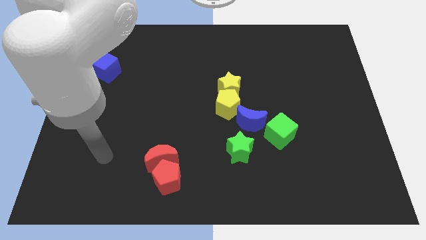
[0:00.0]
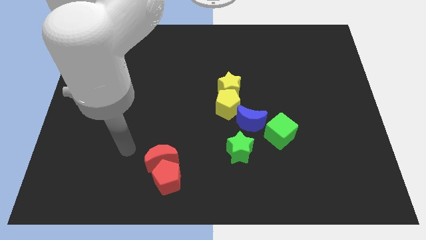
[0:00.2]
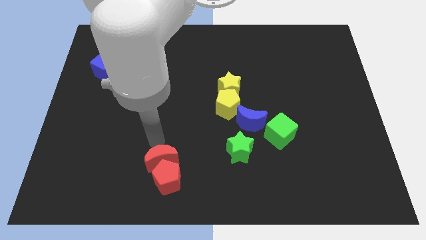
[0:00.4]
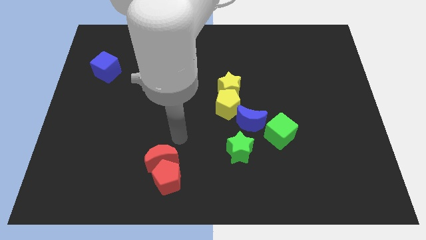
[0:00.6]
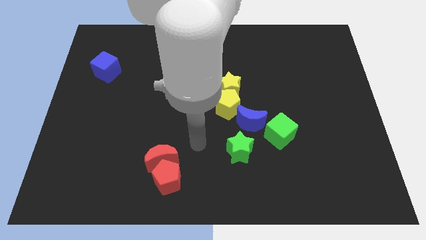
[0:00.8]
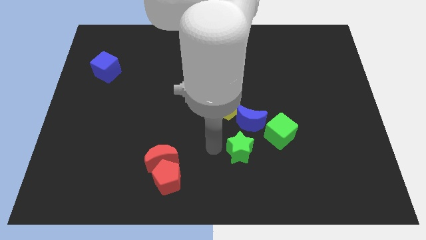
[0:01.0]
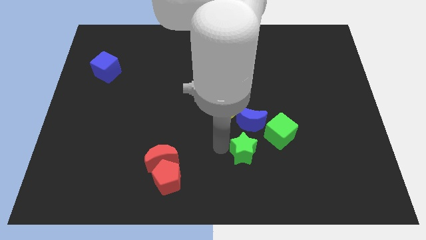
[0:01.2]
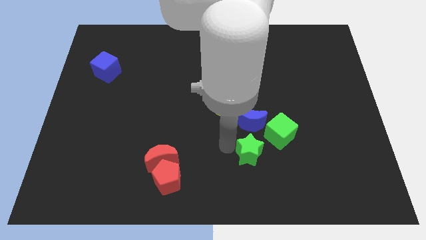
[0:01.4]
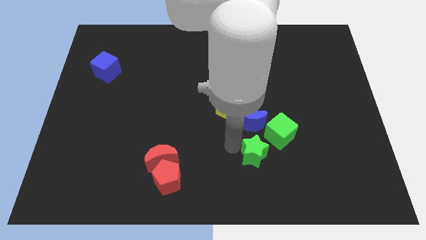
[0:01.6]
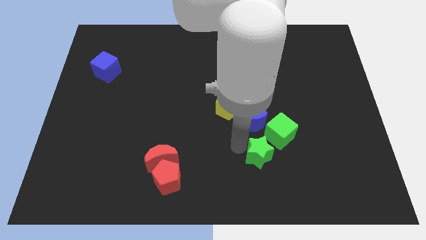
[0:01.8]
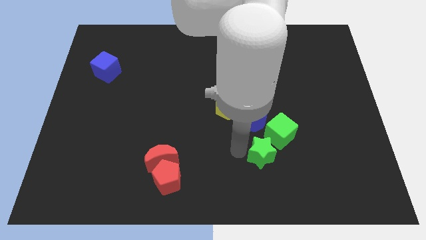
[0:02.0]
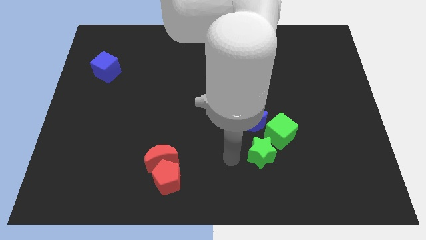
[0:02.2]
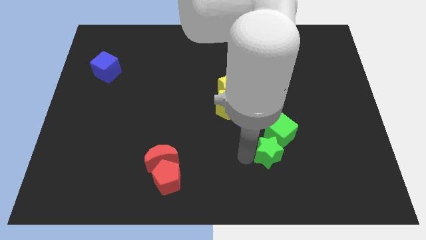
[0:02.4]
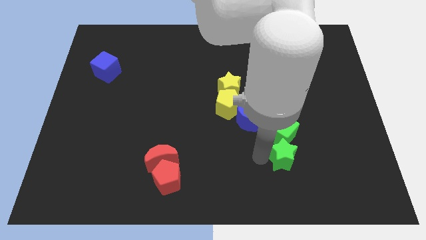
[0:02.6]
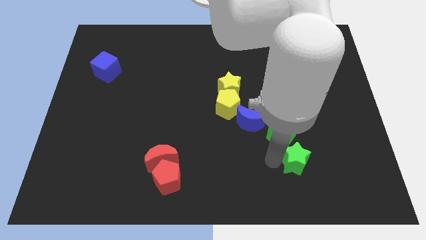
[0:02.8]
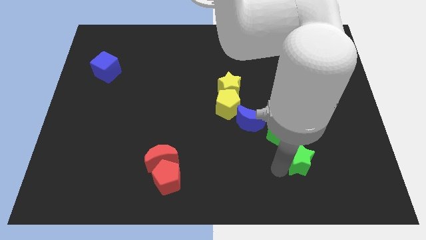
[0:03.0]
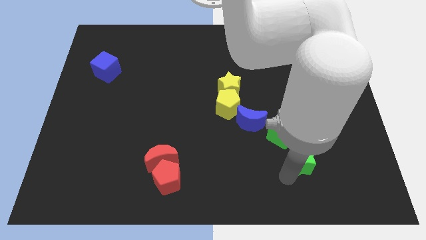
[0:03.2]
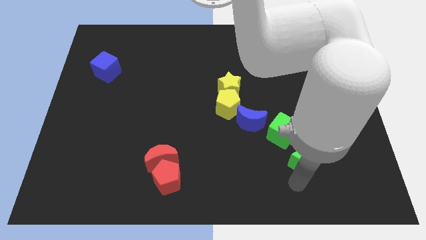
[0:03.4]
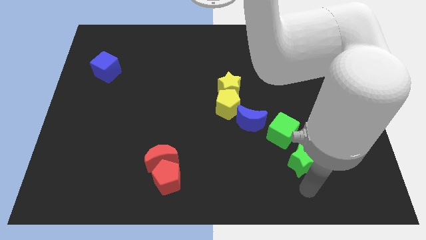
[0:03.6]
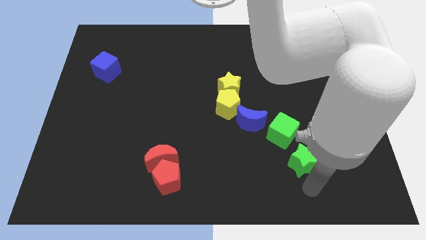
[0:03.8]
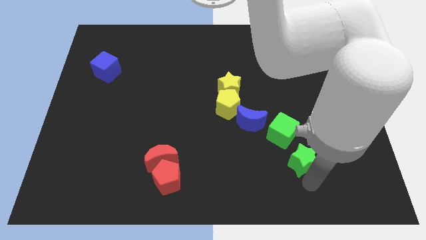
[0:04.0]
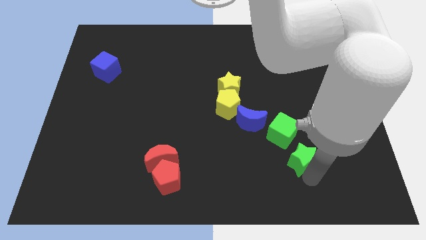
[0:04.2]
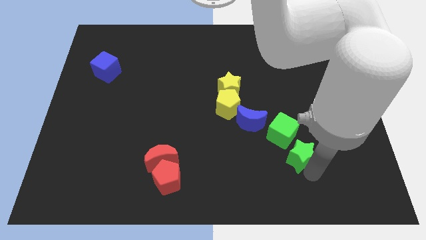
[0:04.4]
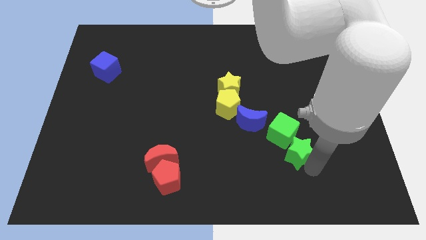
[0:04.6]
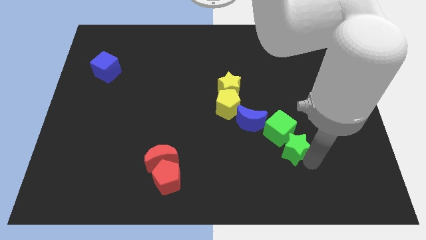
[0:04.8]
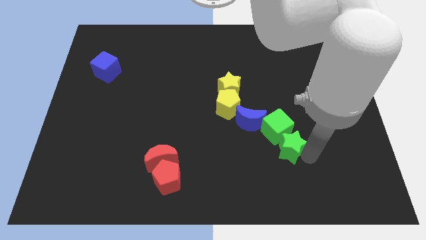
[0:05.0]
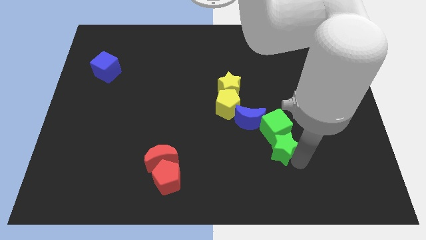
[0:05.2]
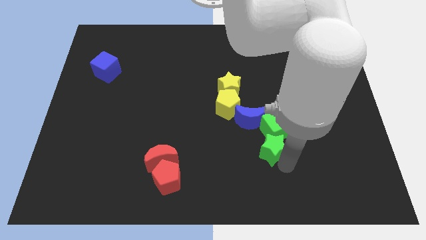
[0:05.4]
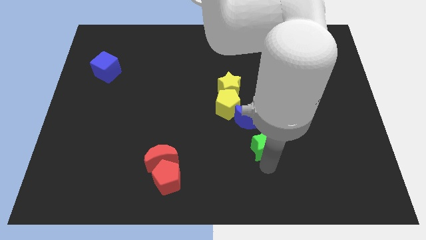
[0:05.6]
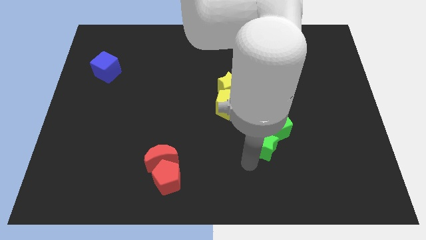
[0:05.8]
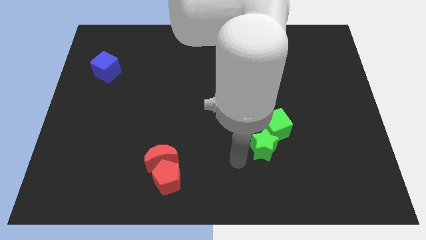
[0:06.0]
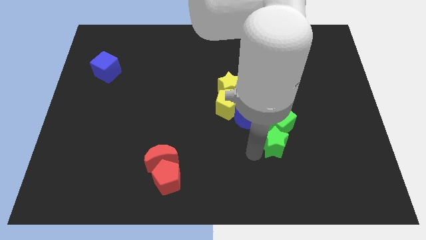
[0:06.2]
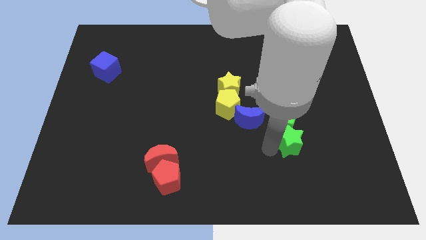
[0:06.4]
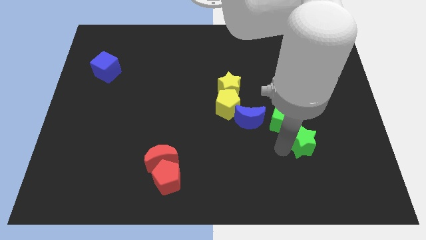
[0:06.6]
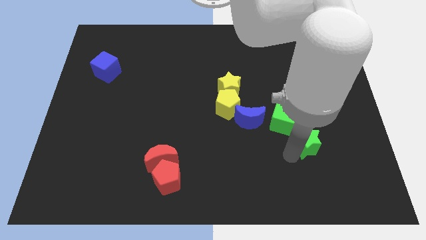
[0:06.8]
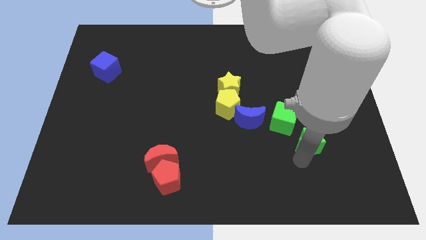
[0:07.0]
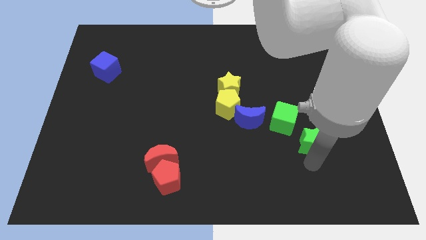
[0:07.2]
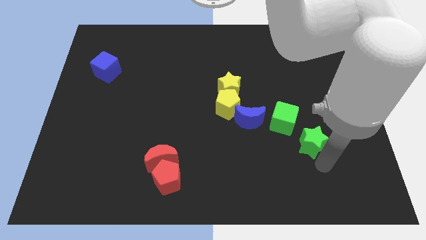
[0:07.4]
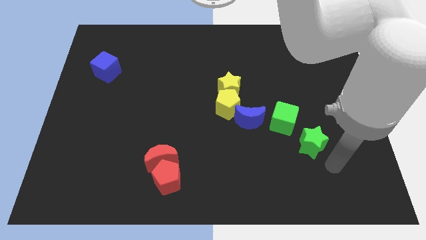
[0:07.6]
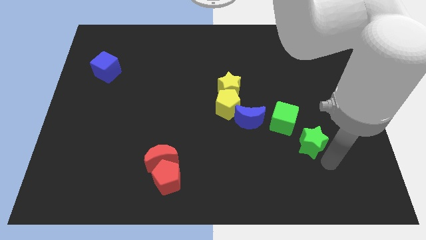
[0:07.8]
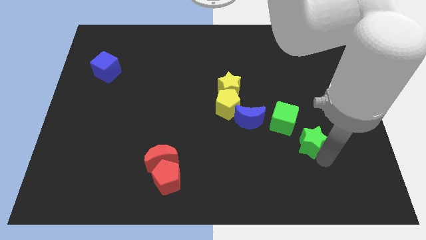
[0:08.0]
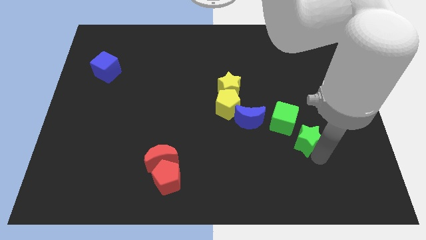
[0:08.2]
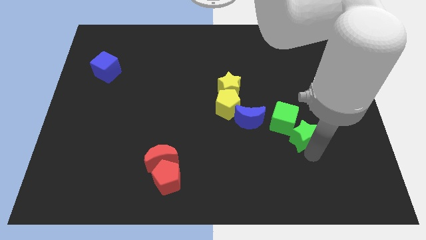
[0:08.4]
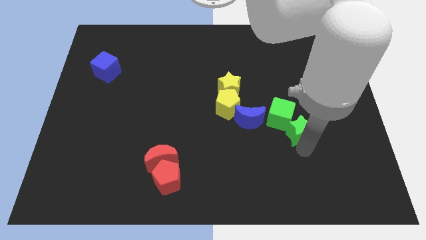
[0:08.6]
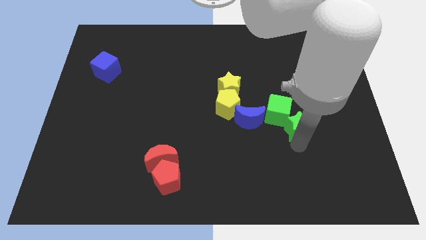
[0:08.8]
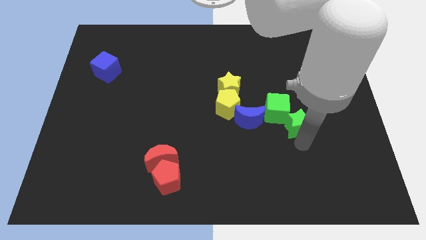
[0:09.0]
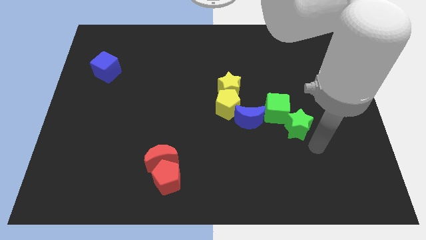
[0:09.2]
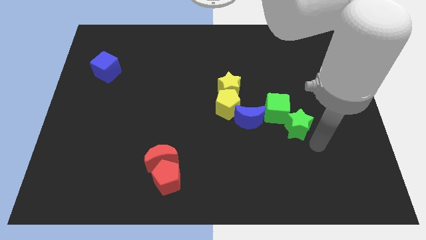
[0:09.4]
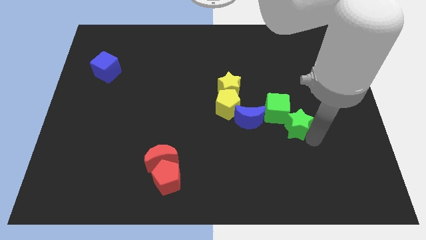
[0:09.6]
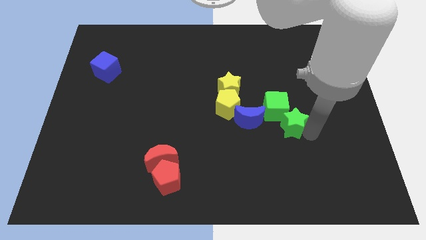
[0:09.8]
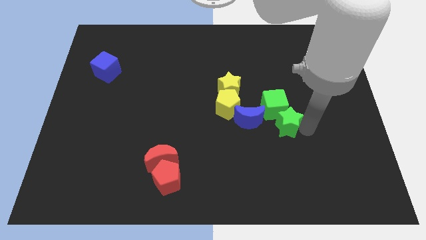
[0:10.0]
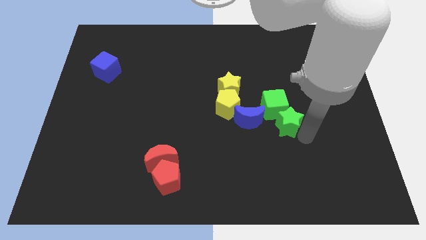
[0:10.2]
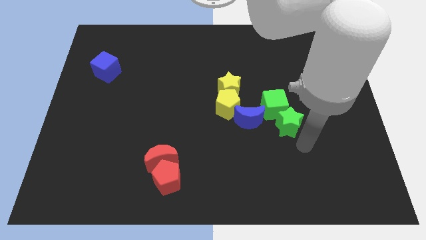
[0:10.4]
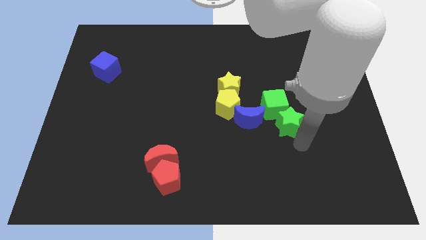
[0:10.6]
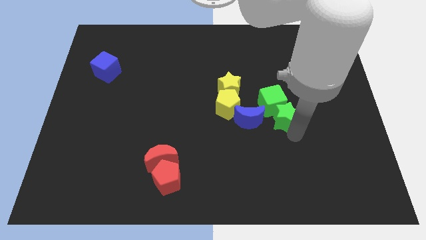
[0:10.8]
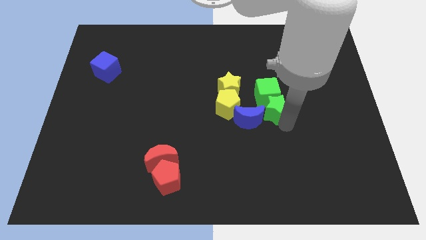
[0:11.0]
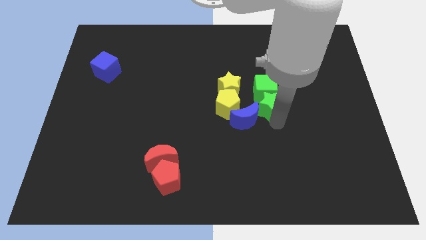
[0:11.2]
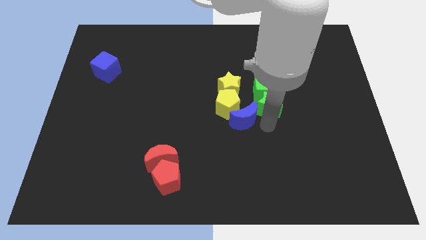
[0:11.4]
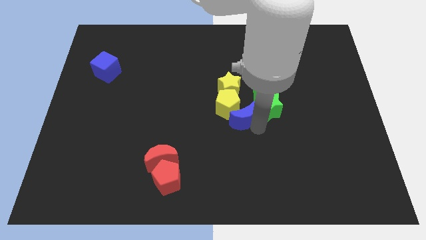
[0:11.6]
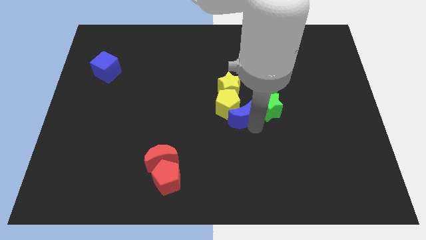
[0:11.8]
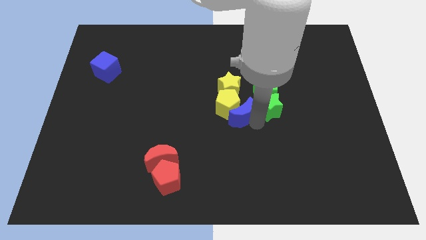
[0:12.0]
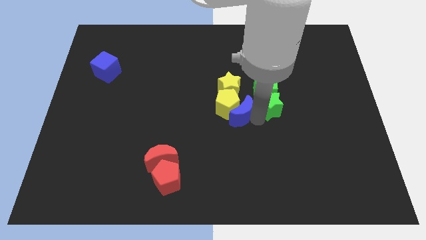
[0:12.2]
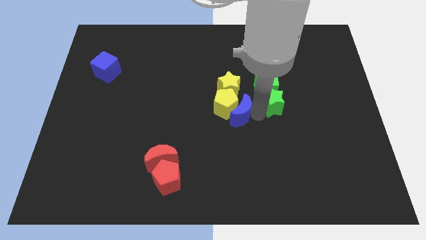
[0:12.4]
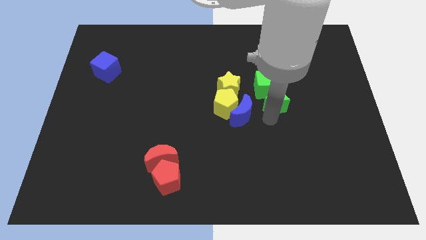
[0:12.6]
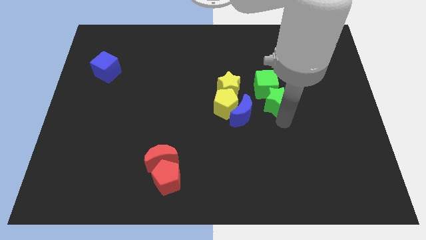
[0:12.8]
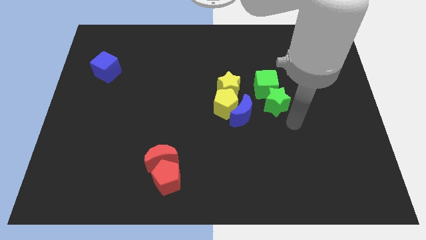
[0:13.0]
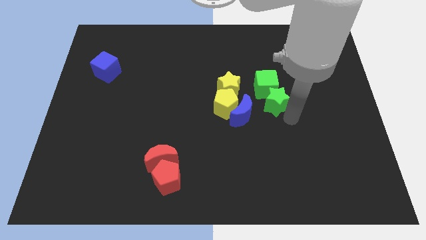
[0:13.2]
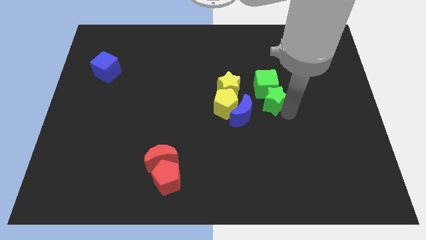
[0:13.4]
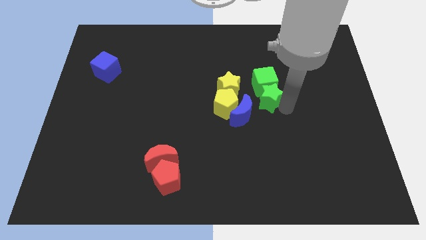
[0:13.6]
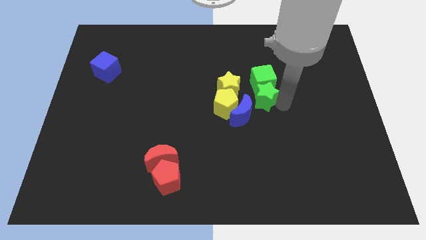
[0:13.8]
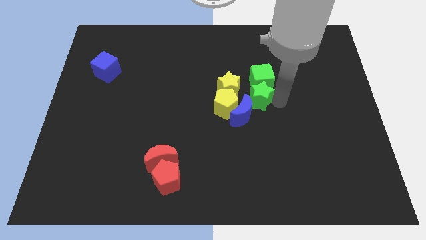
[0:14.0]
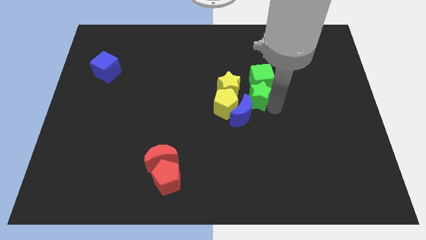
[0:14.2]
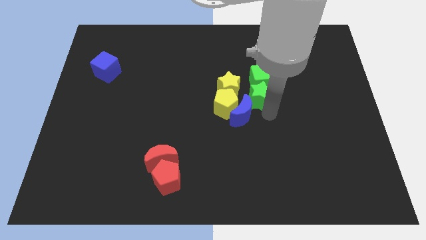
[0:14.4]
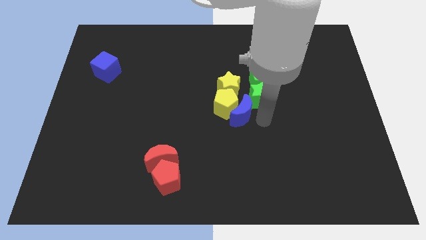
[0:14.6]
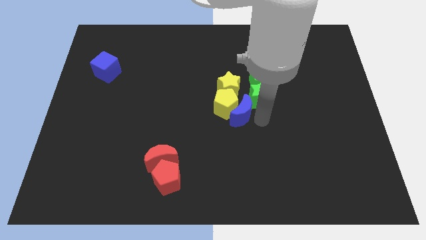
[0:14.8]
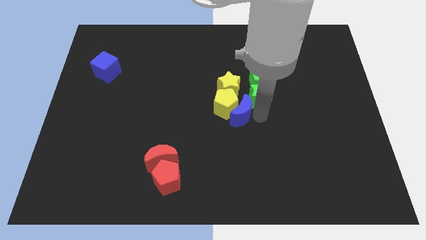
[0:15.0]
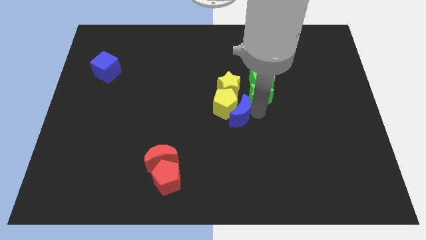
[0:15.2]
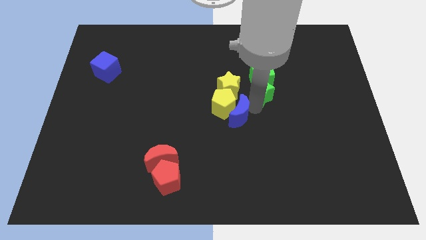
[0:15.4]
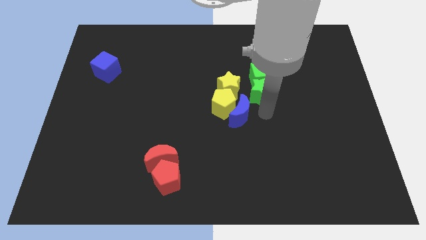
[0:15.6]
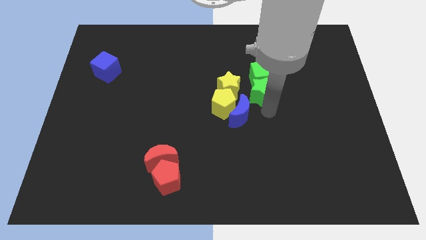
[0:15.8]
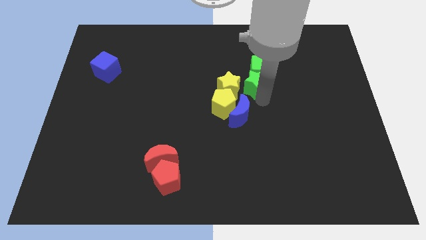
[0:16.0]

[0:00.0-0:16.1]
move the green star to the top right side of the yellow star
